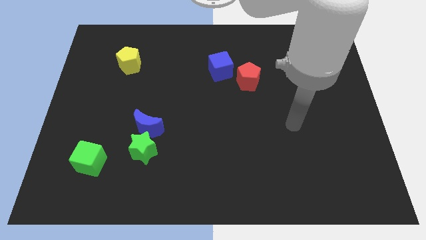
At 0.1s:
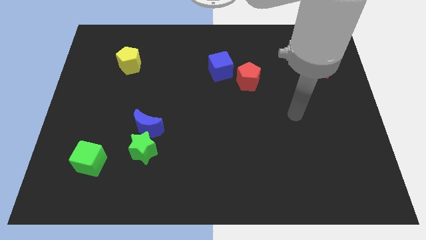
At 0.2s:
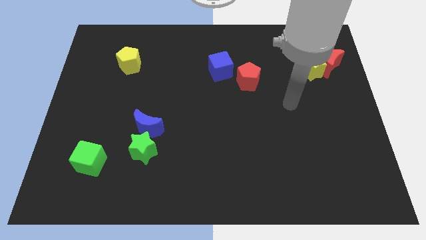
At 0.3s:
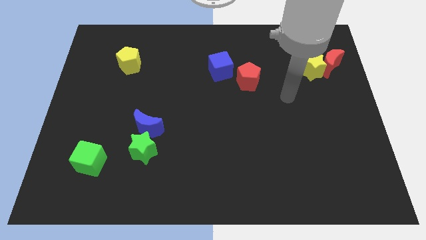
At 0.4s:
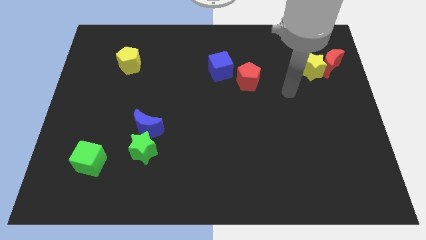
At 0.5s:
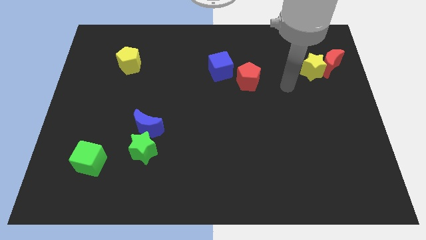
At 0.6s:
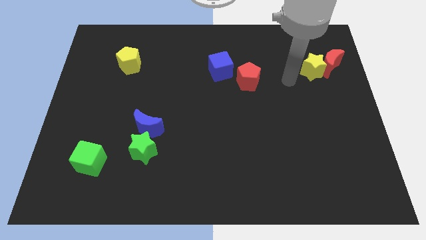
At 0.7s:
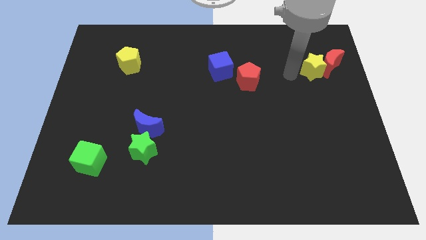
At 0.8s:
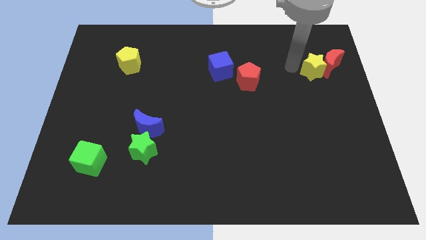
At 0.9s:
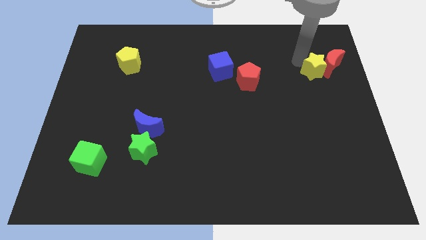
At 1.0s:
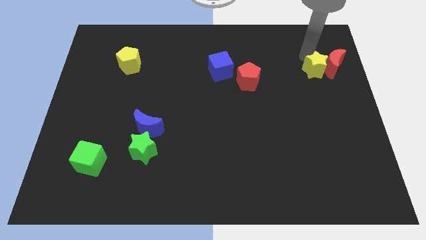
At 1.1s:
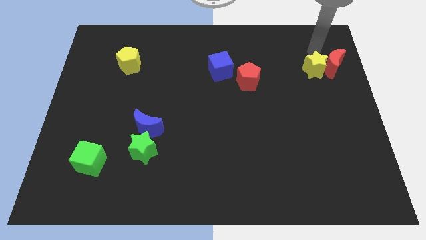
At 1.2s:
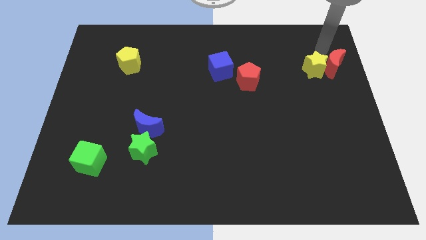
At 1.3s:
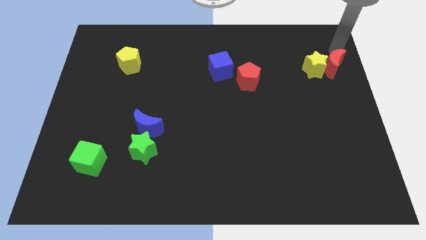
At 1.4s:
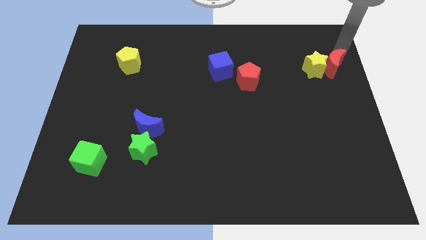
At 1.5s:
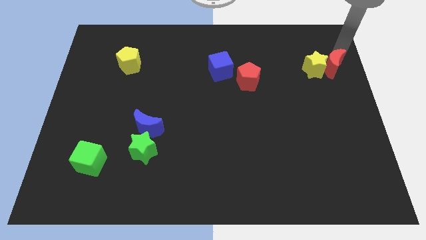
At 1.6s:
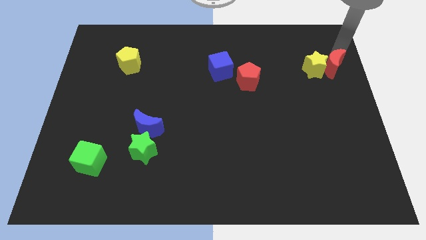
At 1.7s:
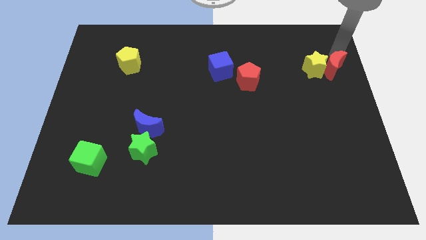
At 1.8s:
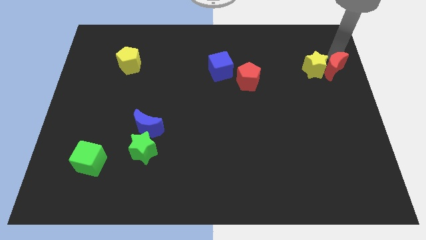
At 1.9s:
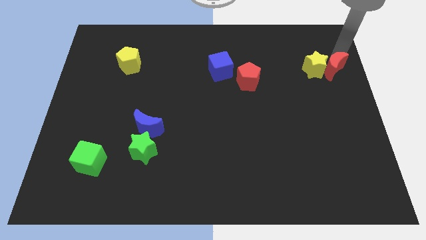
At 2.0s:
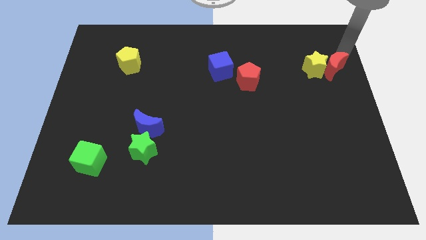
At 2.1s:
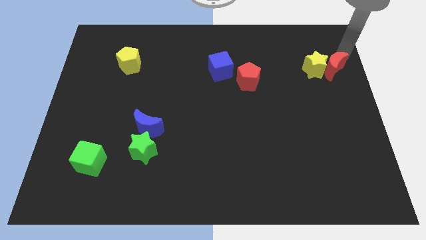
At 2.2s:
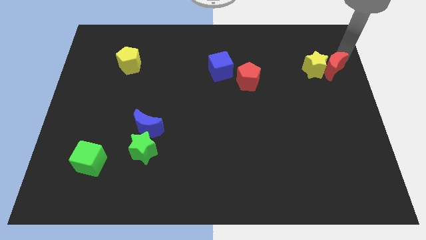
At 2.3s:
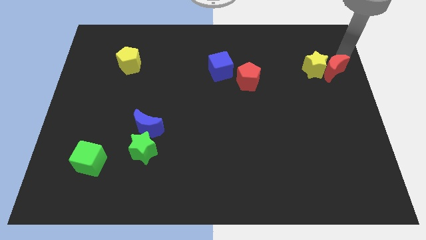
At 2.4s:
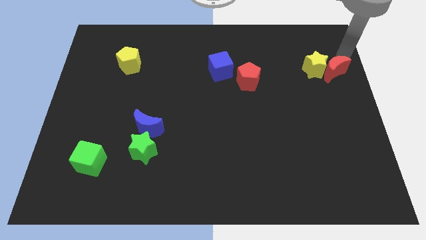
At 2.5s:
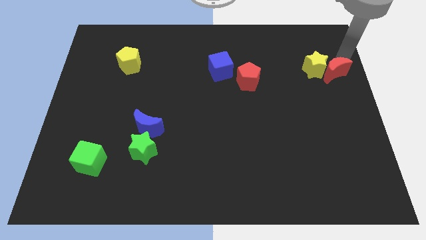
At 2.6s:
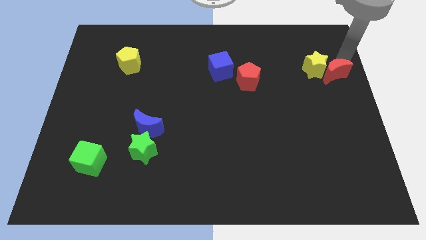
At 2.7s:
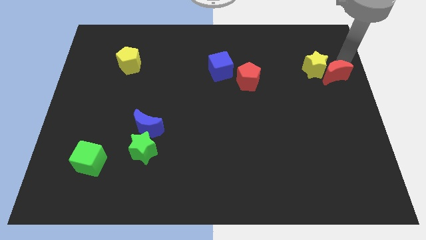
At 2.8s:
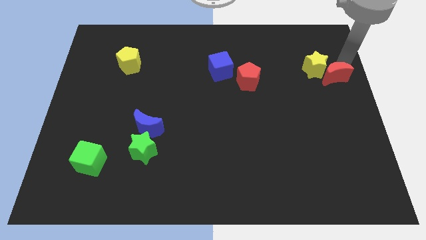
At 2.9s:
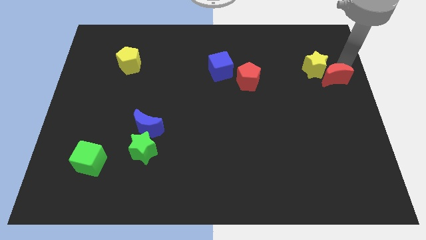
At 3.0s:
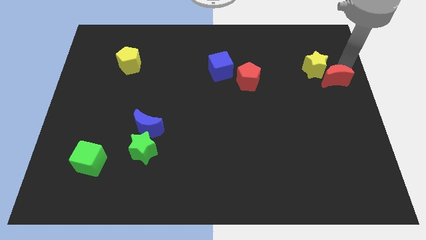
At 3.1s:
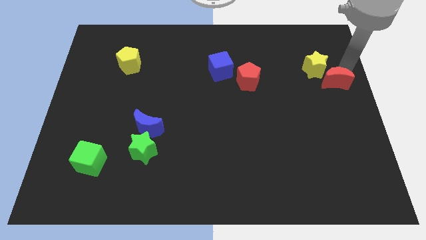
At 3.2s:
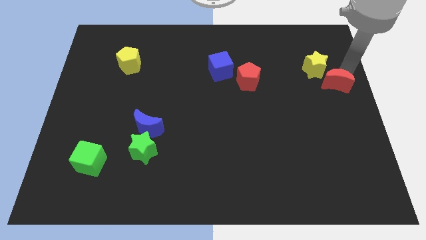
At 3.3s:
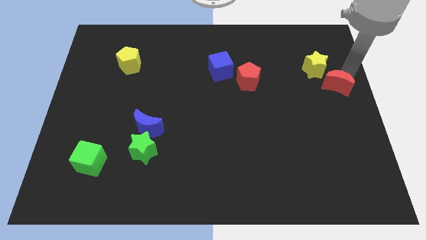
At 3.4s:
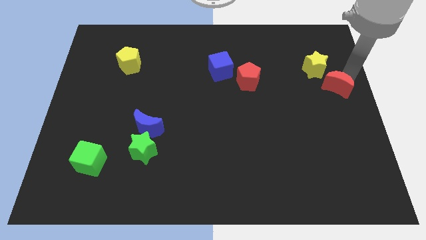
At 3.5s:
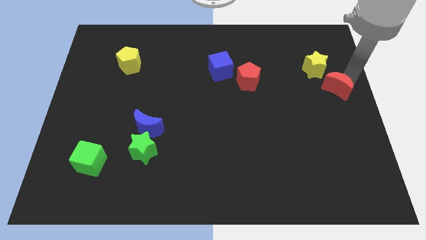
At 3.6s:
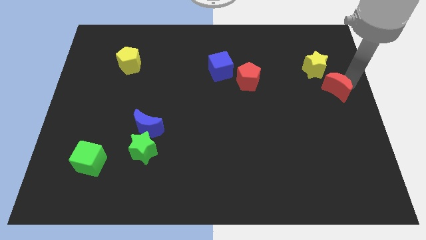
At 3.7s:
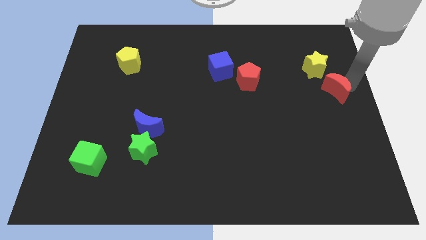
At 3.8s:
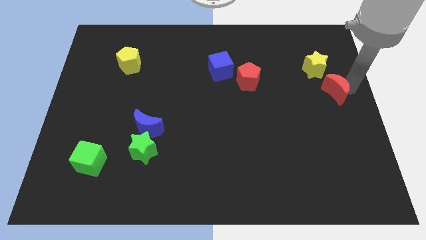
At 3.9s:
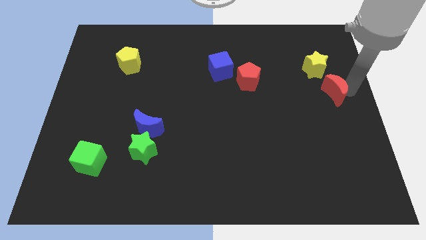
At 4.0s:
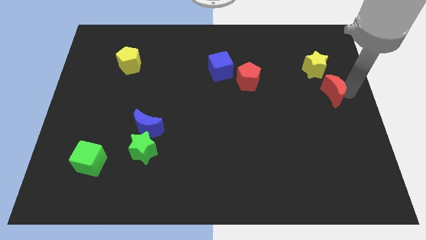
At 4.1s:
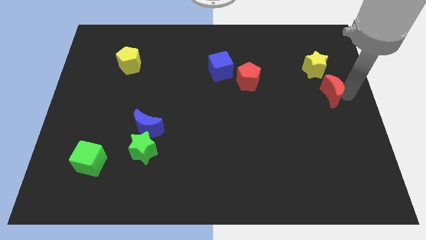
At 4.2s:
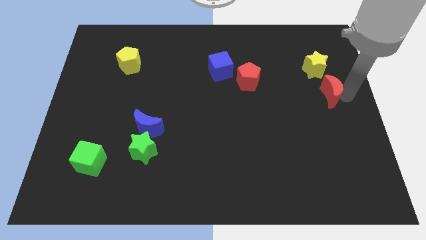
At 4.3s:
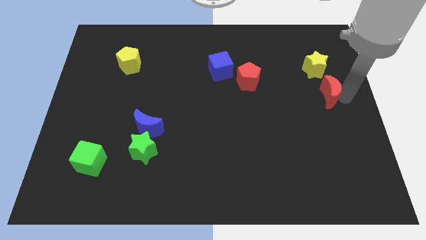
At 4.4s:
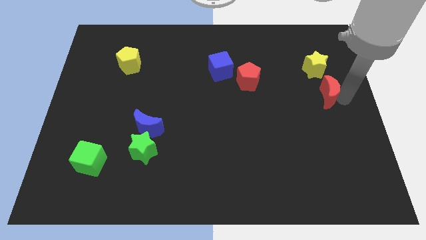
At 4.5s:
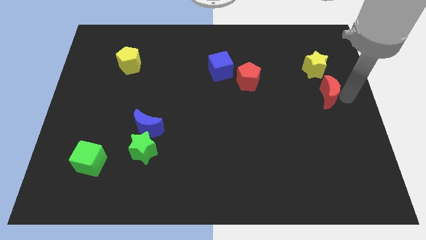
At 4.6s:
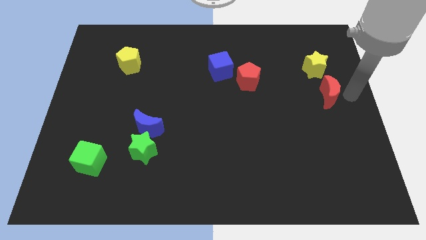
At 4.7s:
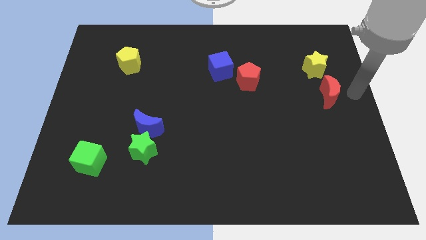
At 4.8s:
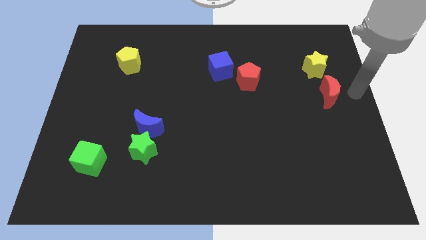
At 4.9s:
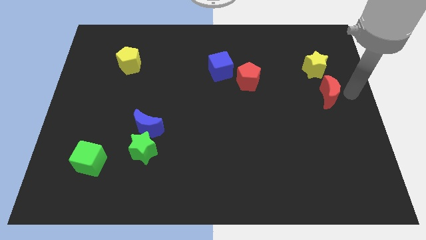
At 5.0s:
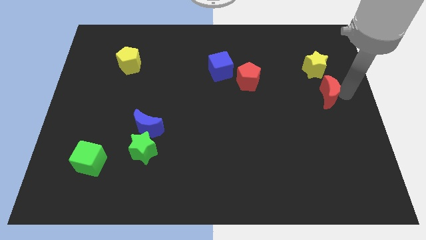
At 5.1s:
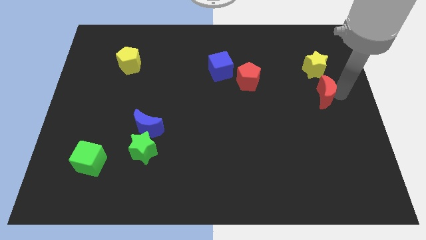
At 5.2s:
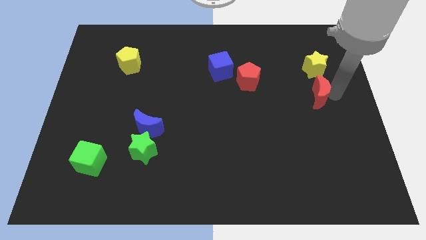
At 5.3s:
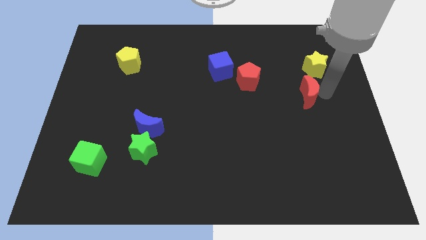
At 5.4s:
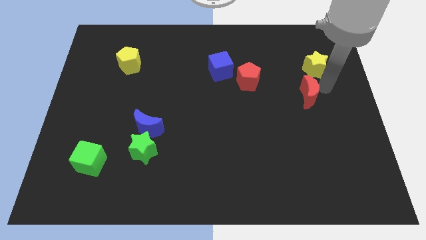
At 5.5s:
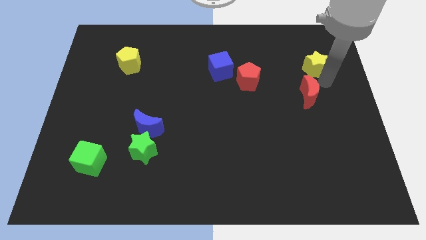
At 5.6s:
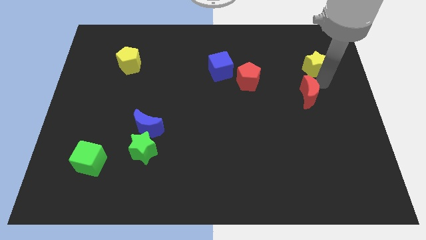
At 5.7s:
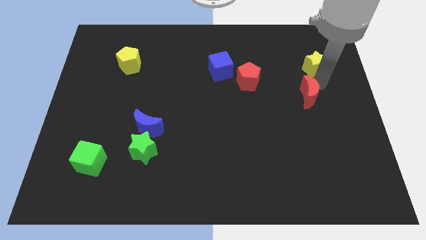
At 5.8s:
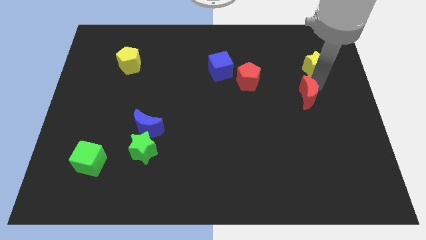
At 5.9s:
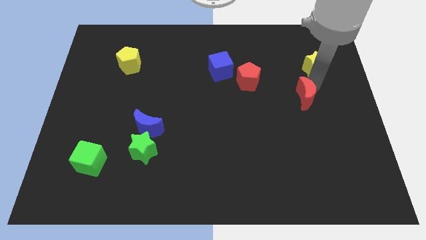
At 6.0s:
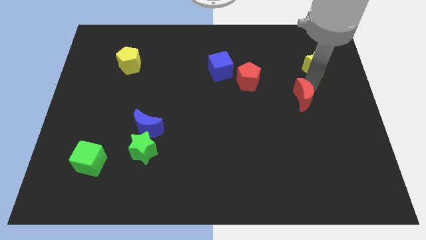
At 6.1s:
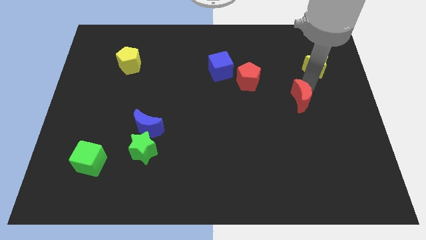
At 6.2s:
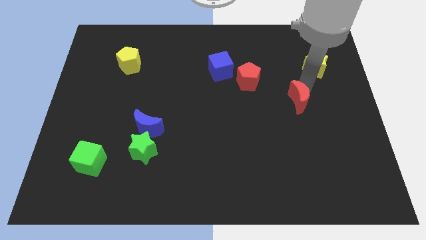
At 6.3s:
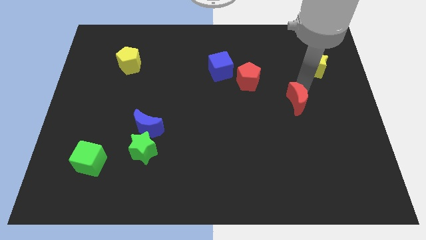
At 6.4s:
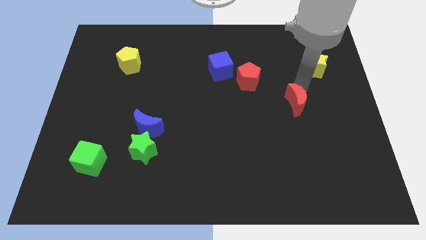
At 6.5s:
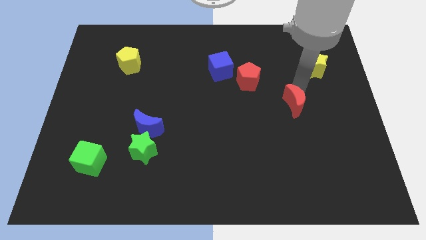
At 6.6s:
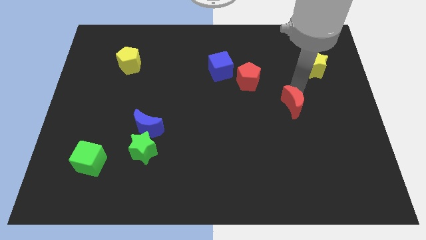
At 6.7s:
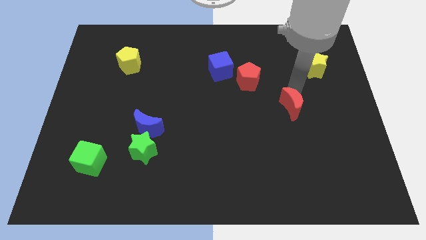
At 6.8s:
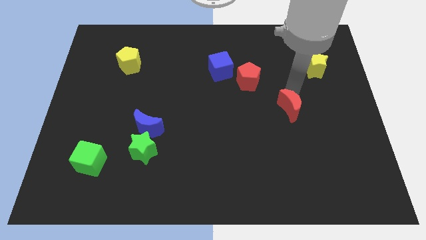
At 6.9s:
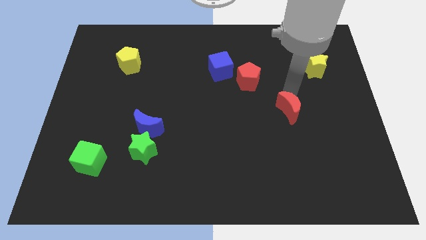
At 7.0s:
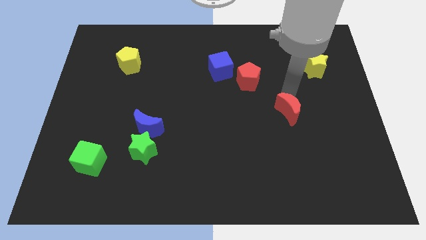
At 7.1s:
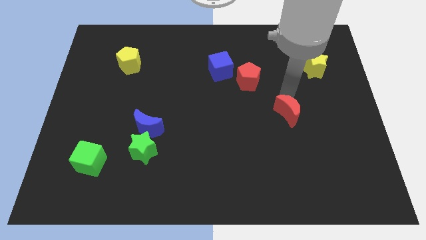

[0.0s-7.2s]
push the red moon diagonally downwards and to the left
